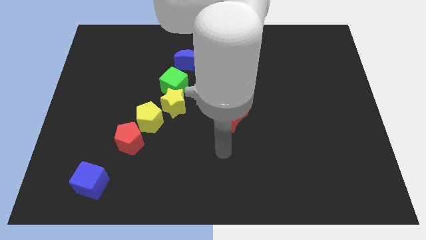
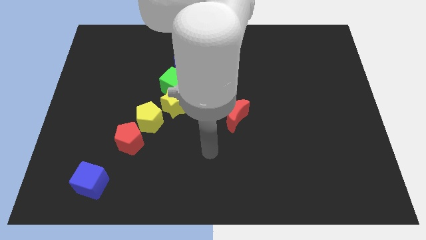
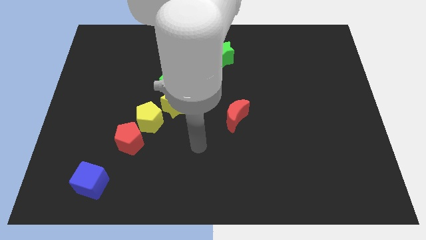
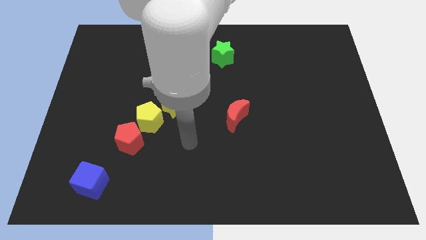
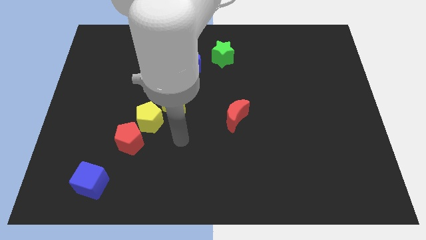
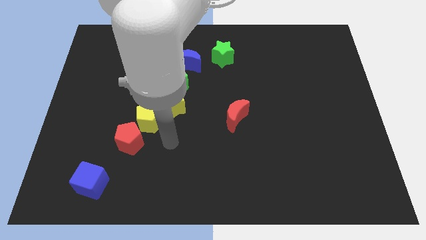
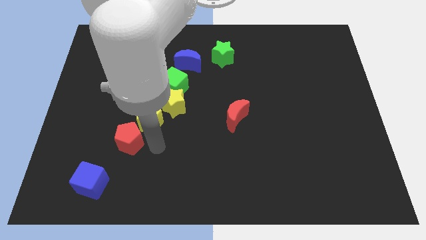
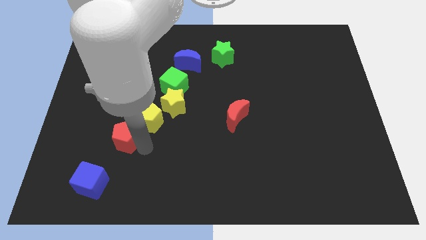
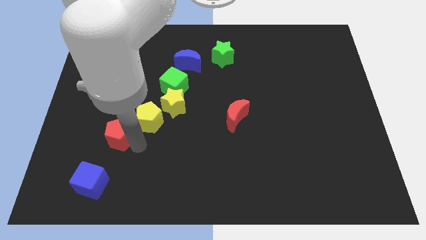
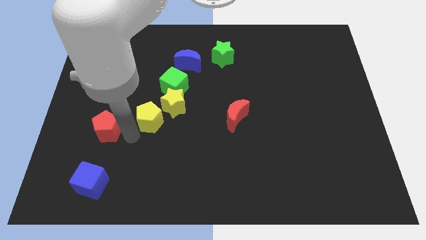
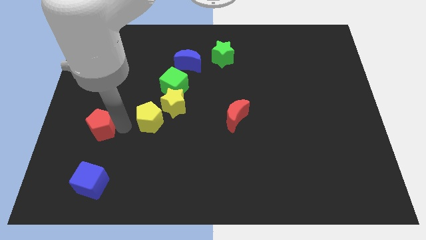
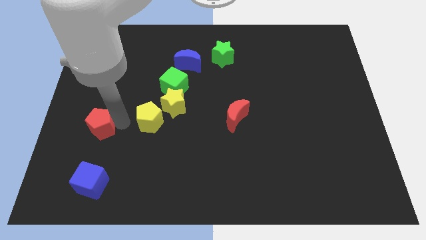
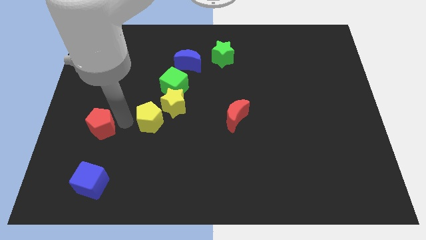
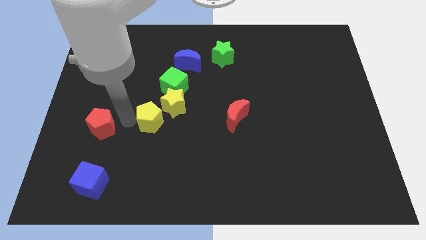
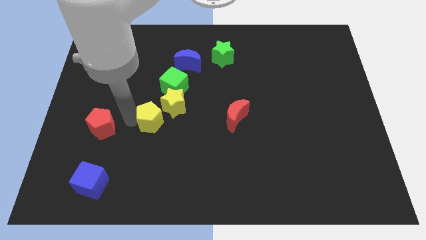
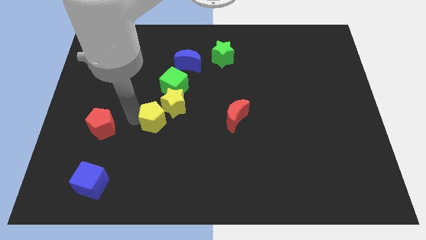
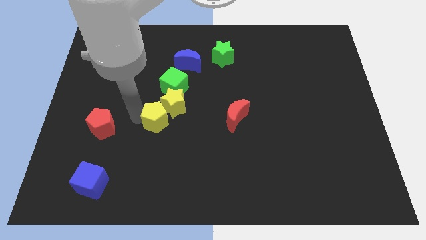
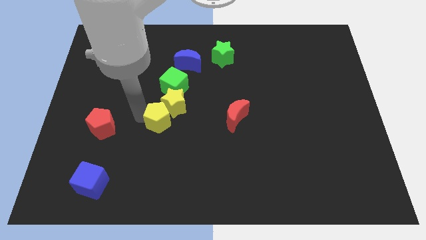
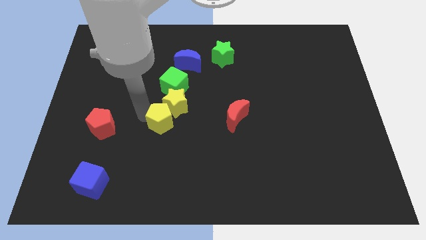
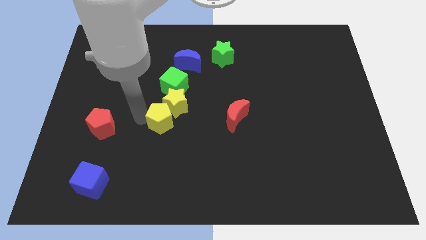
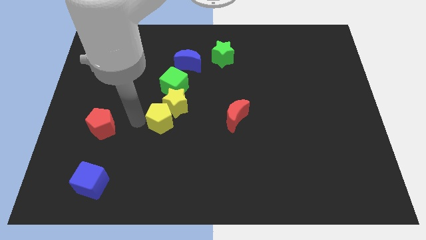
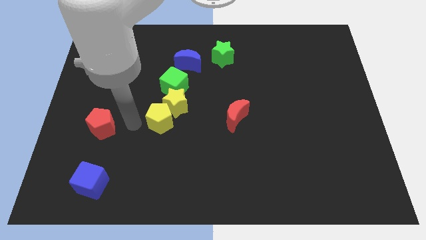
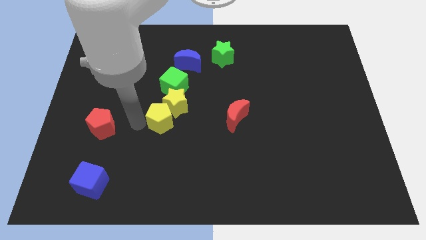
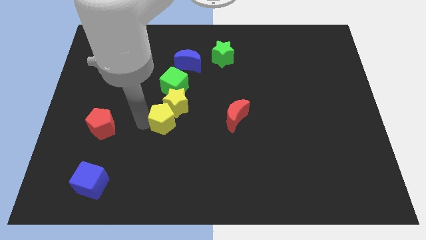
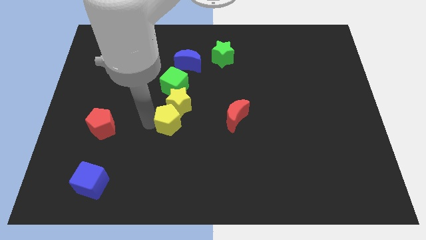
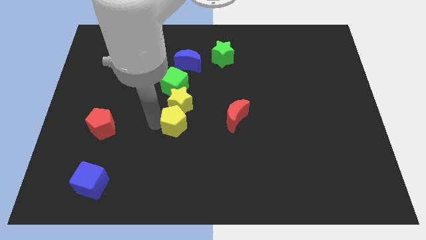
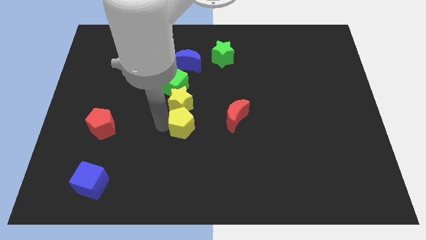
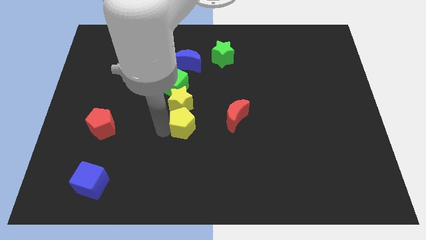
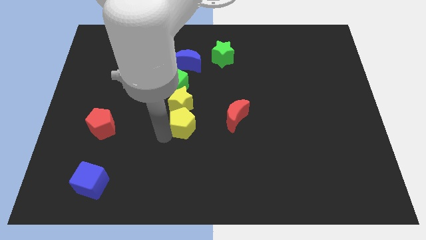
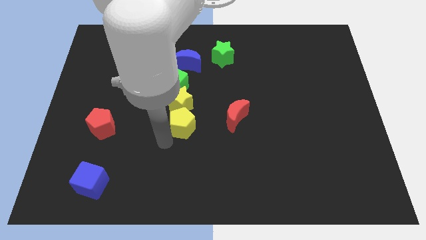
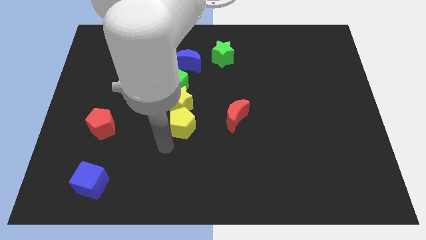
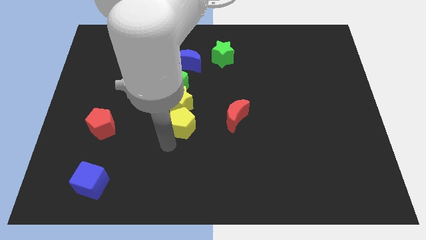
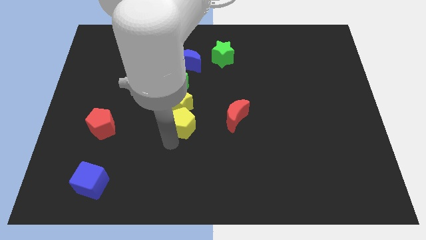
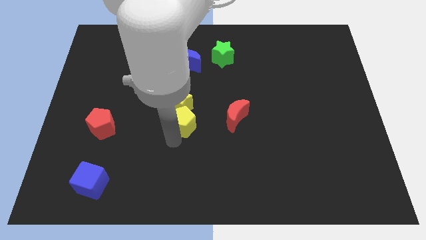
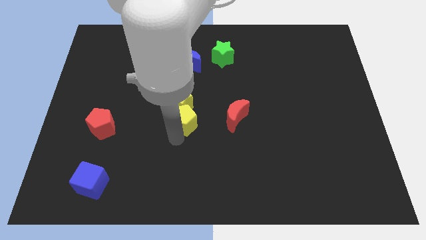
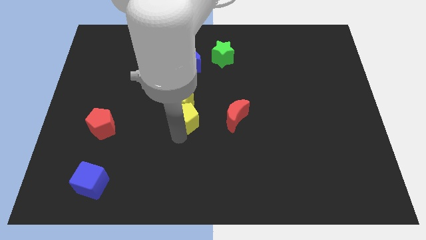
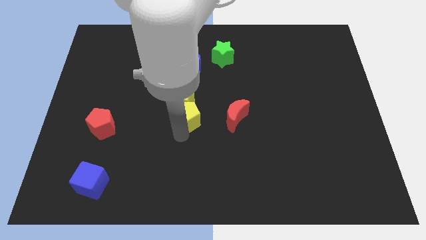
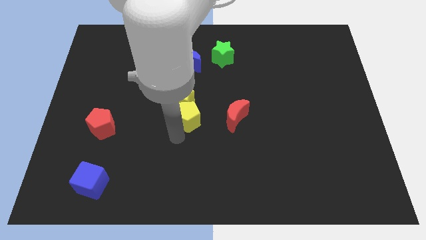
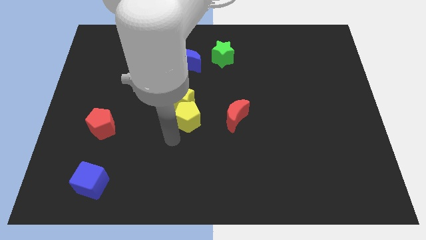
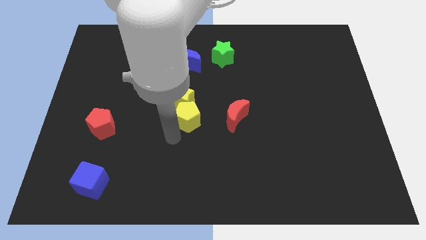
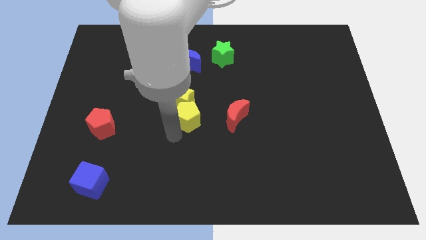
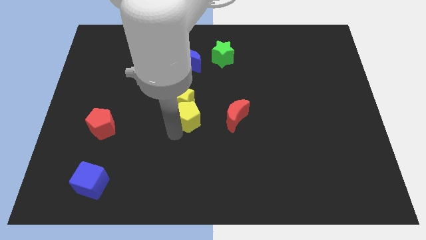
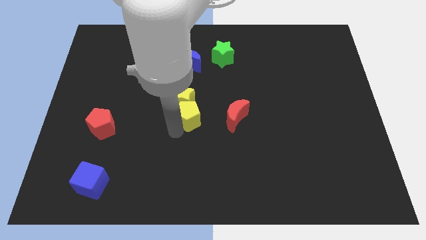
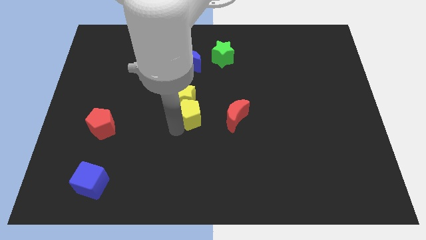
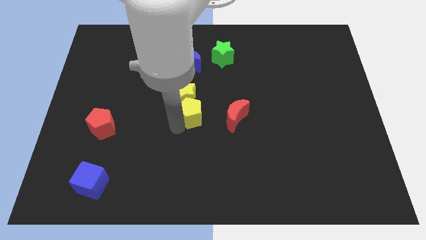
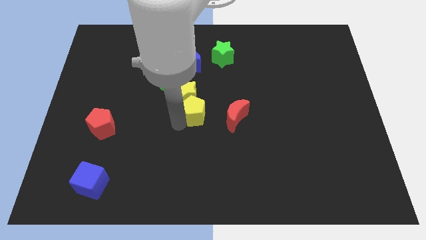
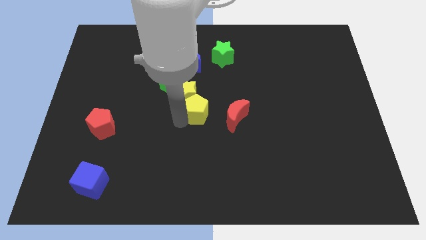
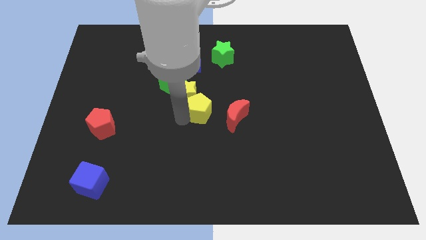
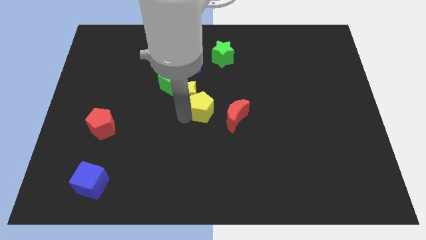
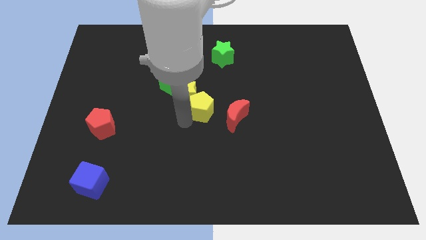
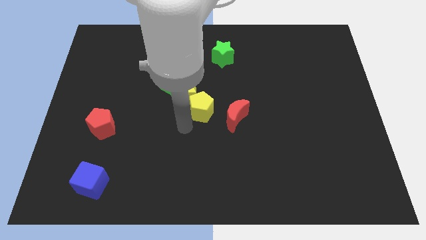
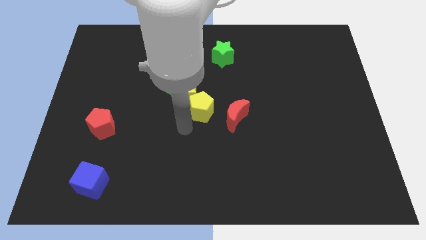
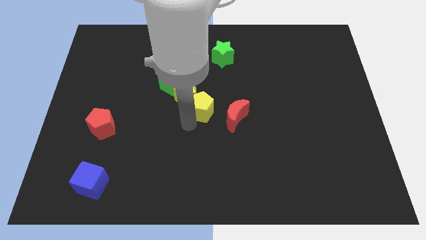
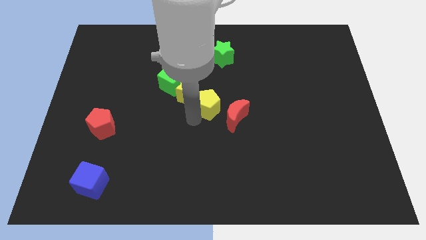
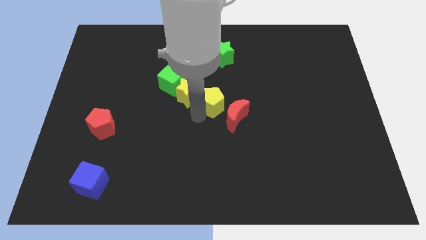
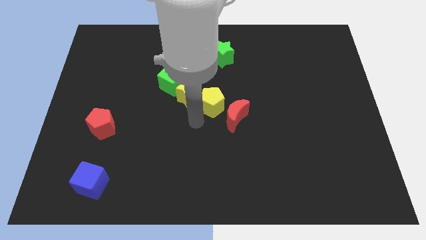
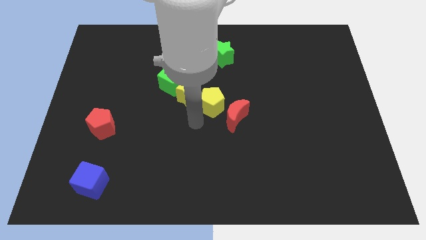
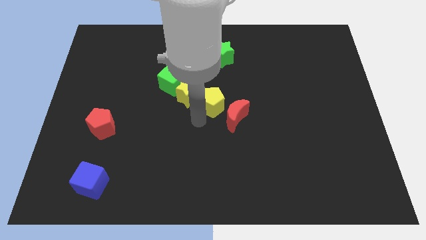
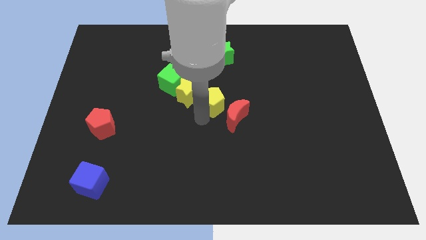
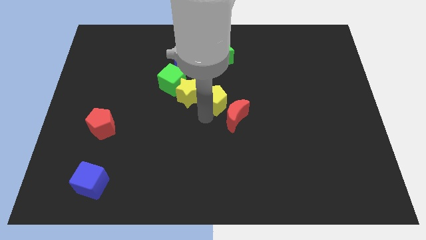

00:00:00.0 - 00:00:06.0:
push the yellow pentagon above the red moon

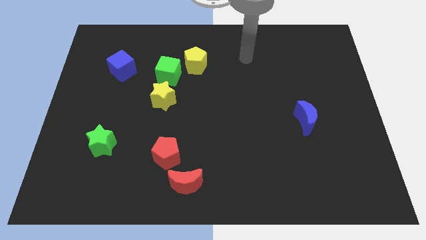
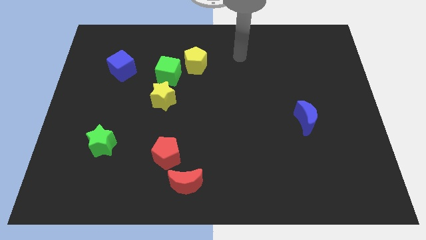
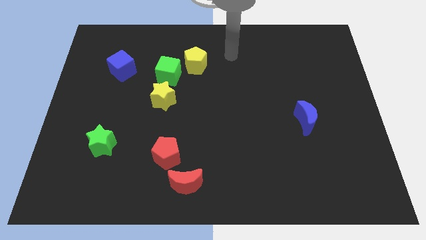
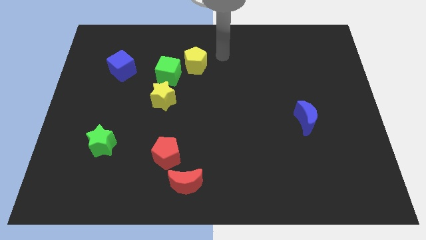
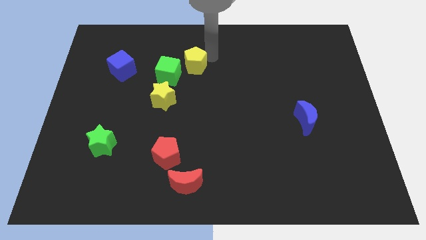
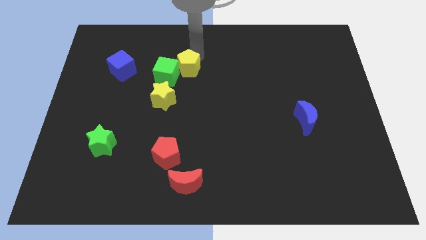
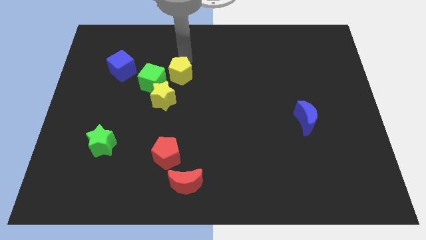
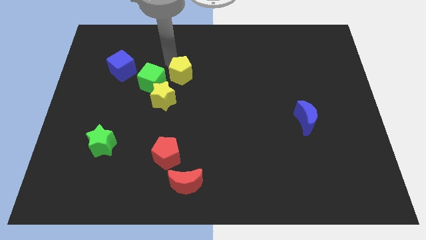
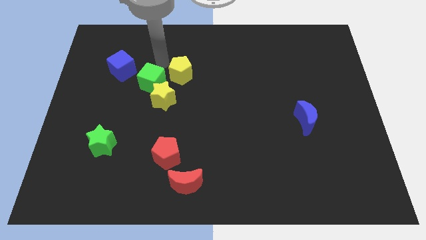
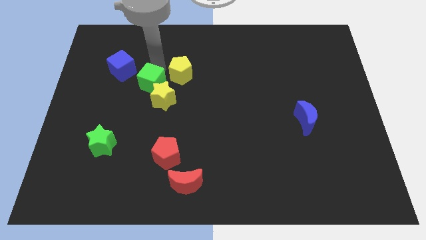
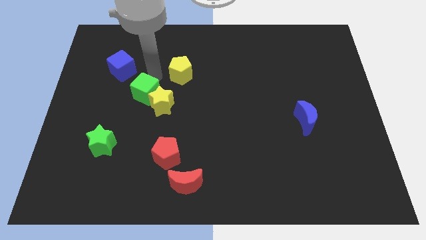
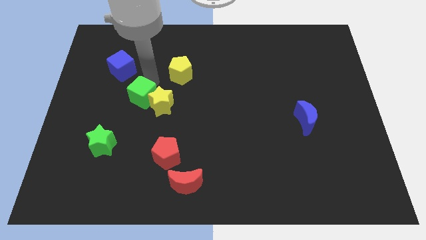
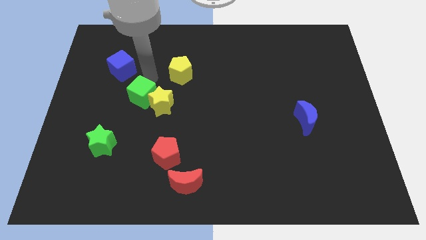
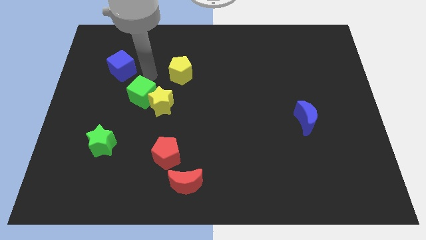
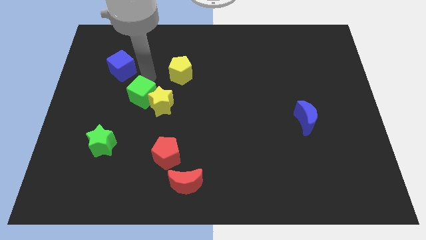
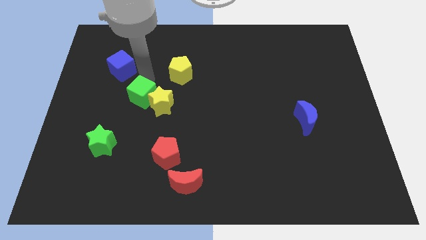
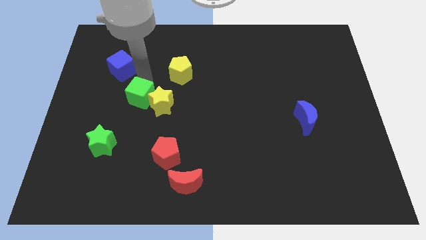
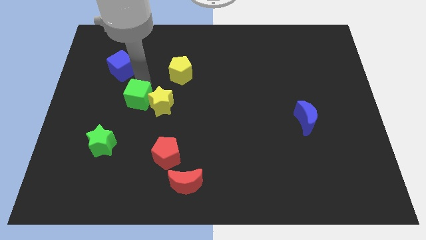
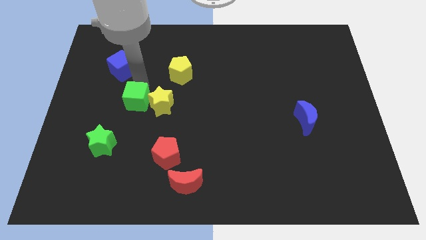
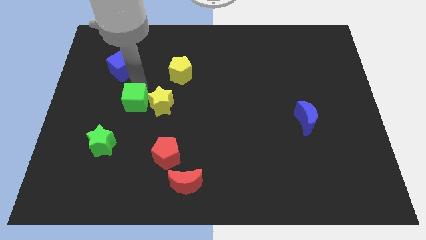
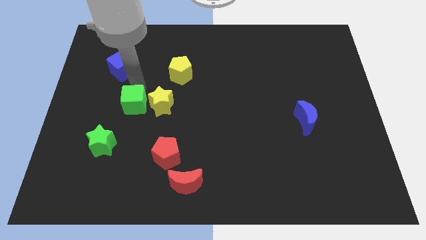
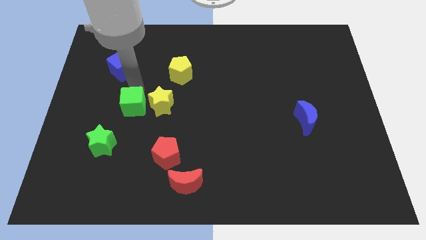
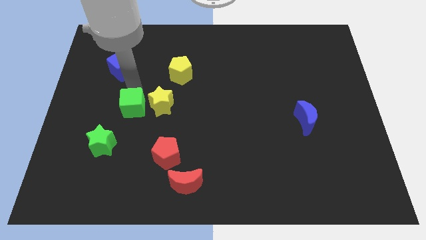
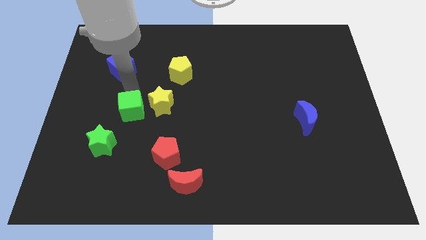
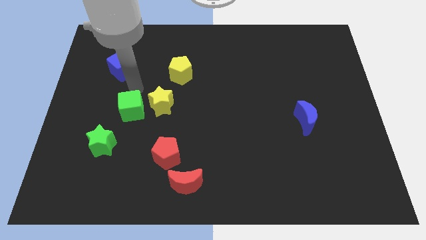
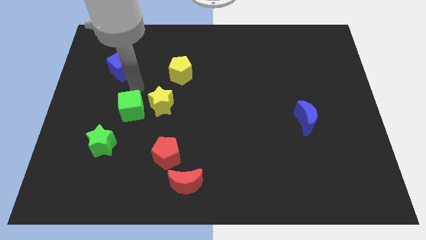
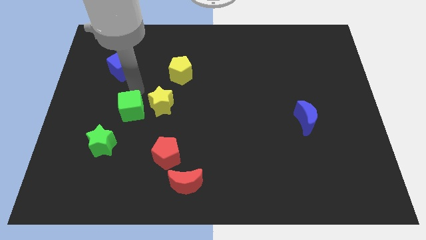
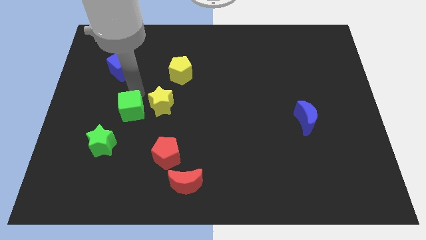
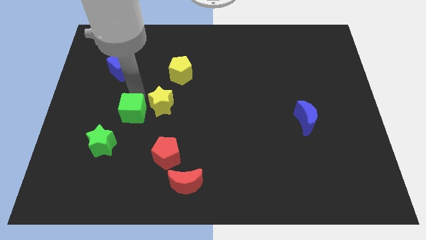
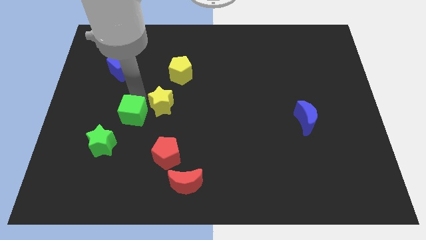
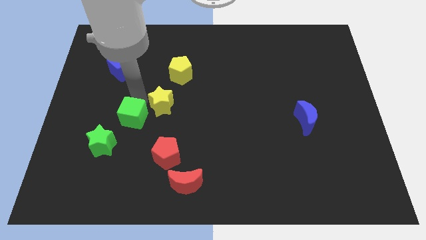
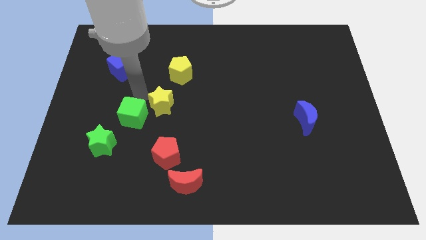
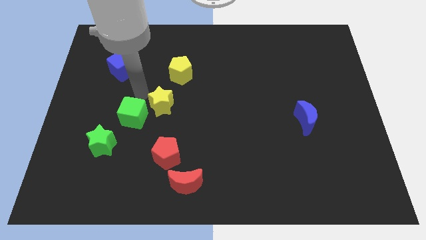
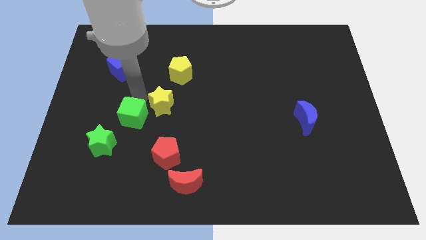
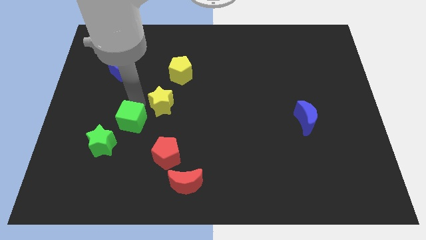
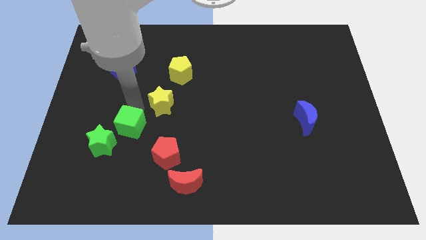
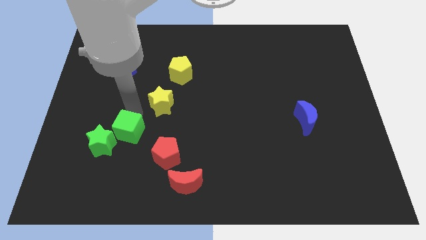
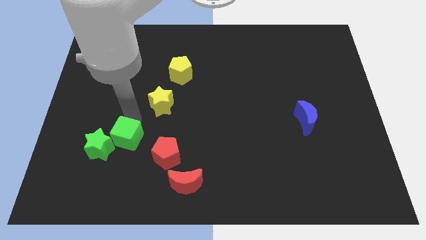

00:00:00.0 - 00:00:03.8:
move the green cube to the left side of the red pentagon
